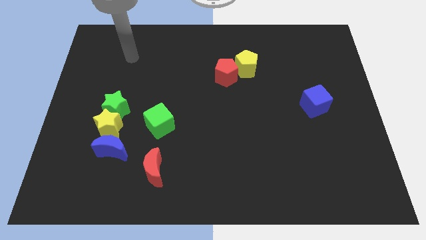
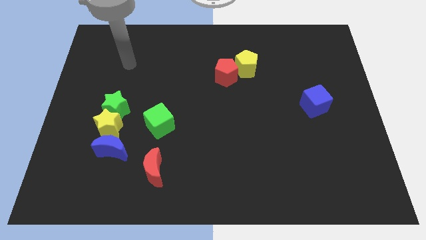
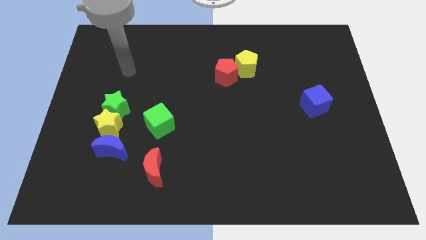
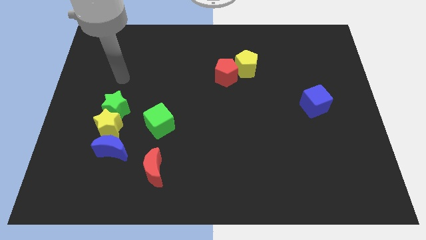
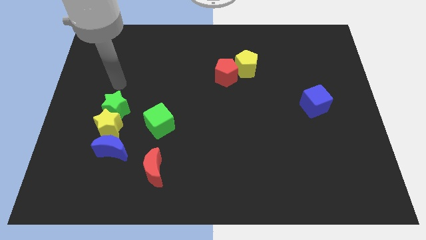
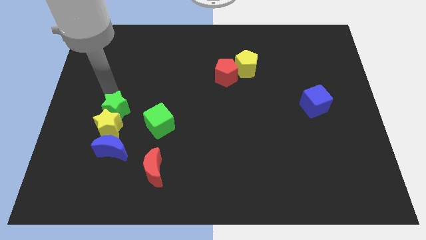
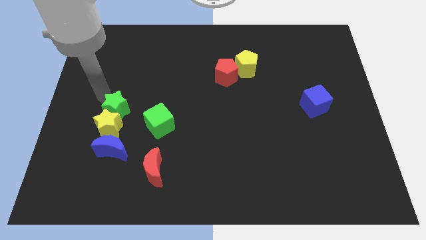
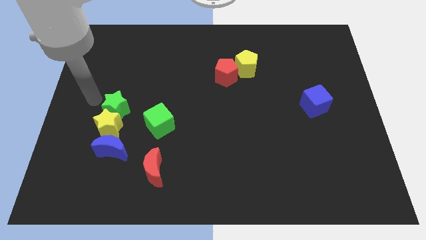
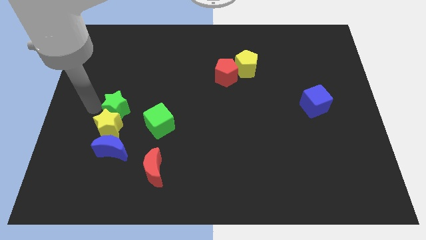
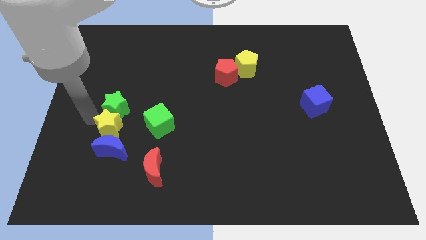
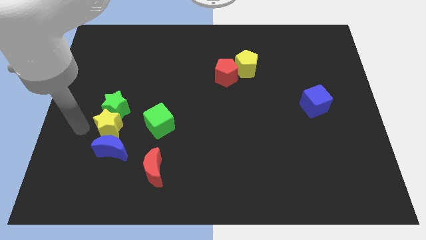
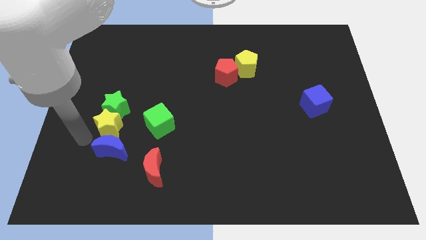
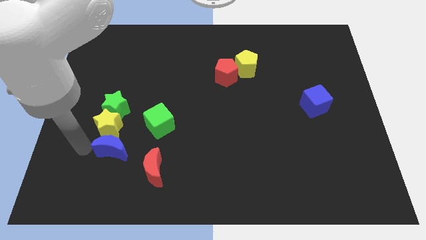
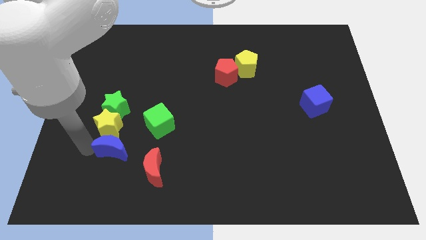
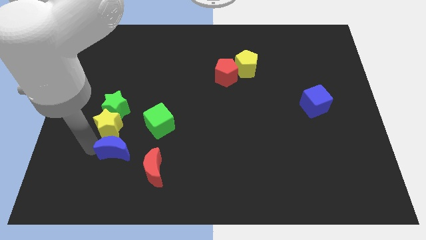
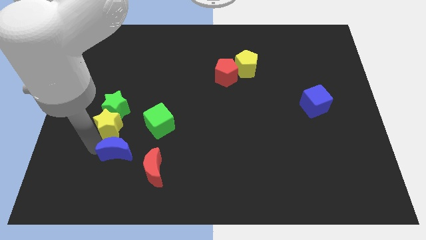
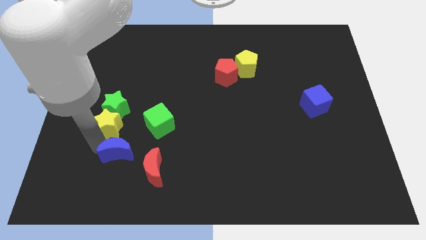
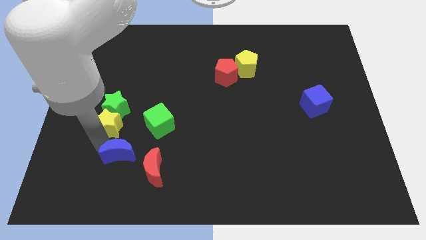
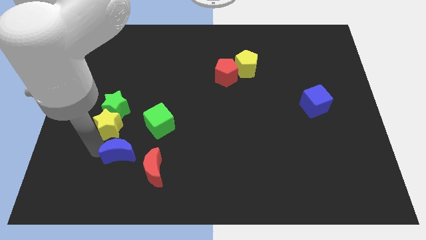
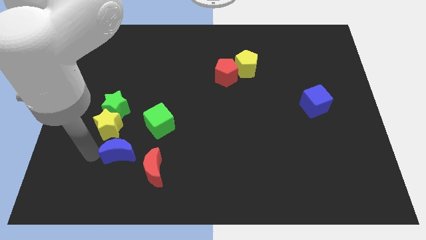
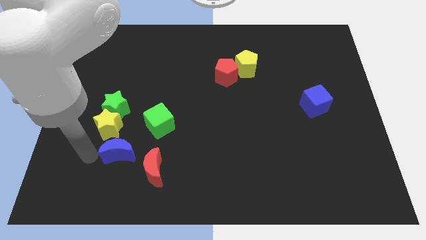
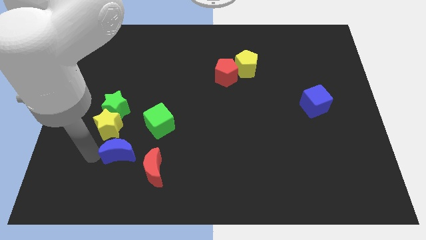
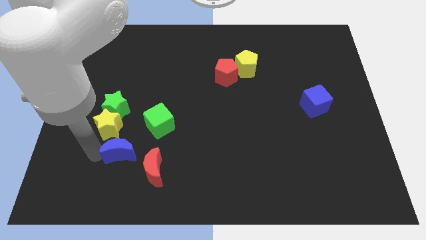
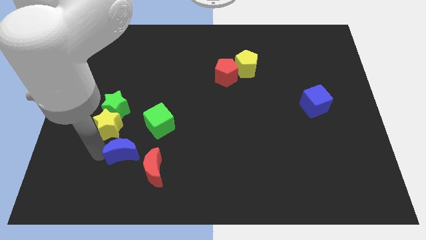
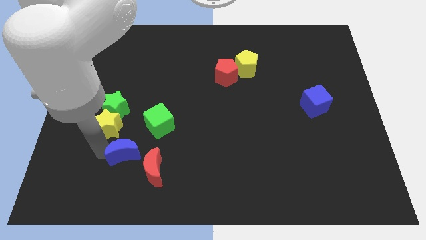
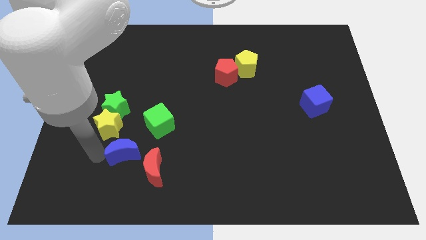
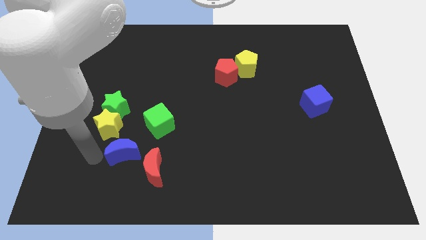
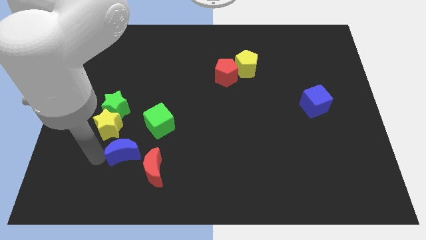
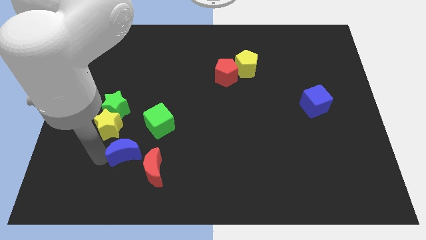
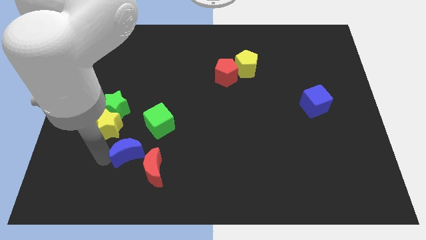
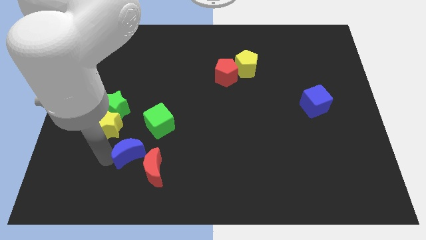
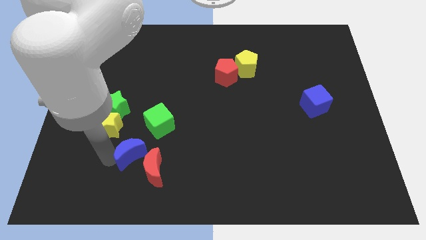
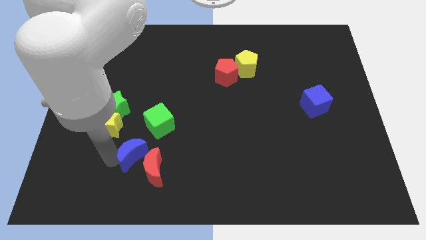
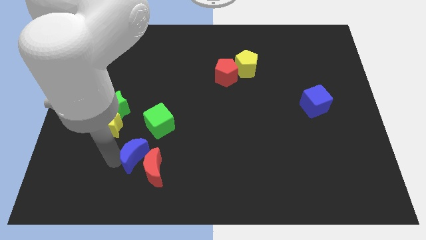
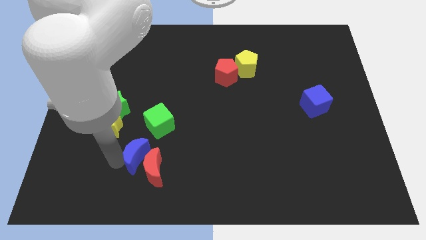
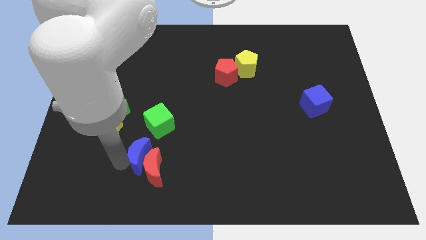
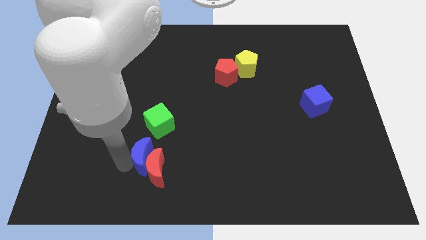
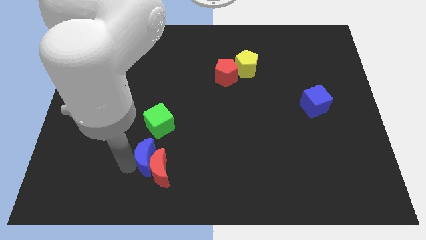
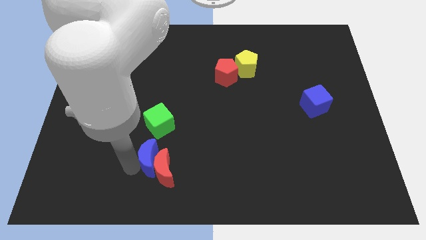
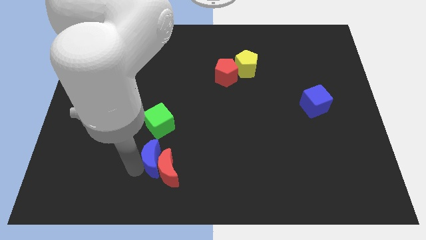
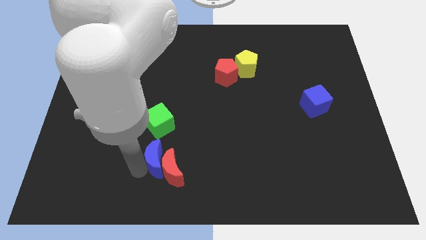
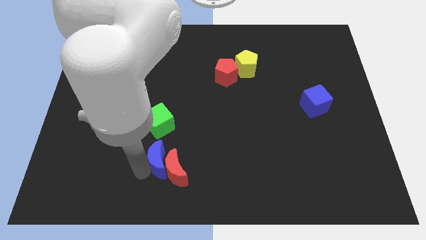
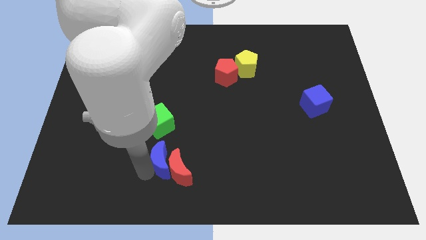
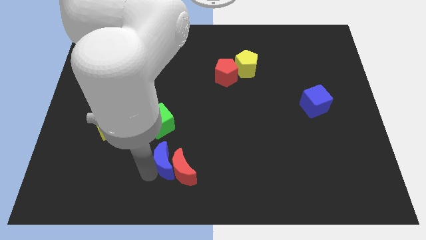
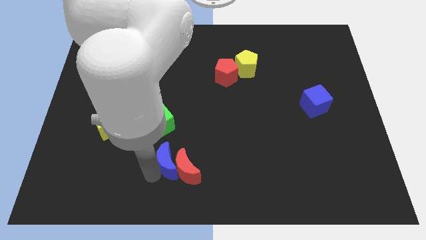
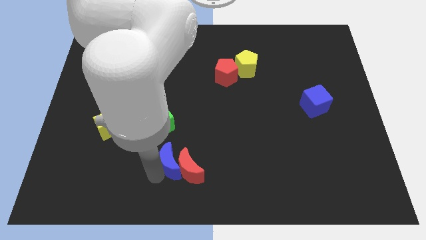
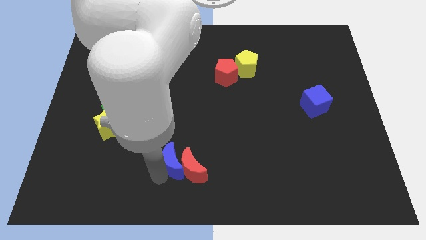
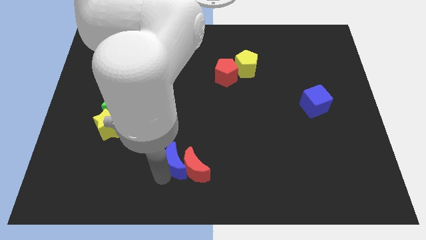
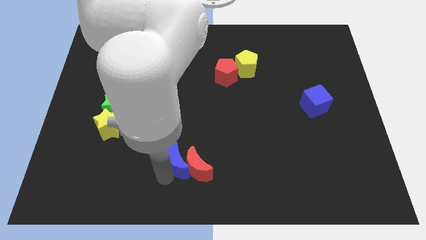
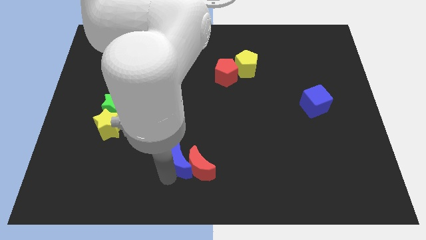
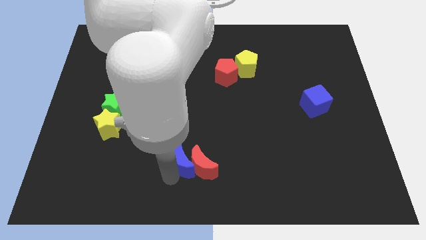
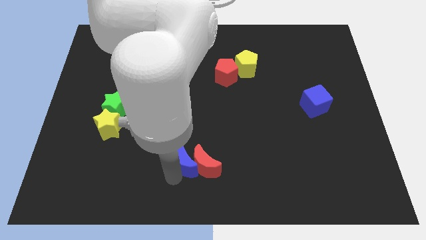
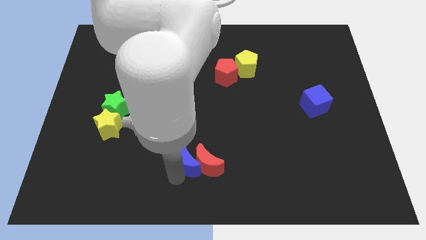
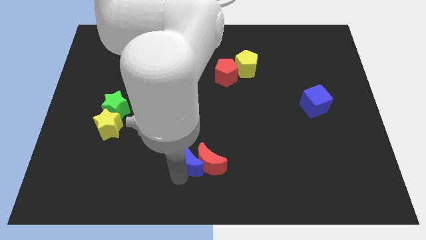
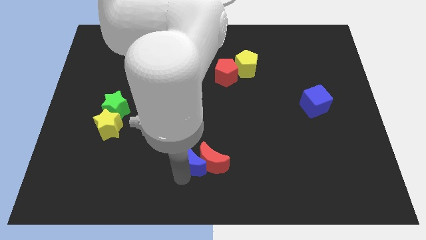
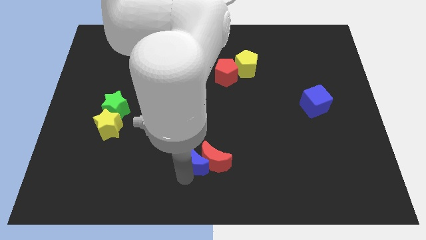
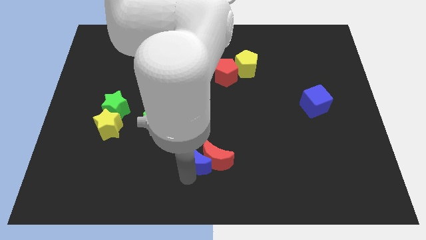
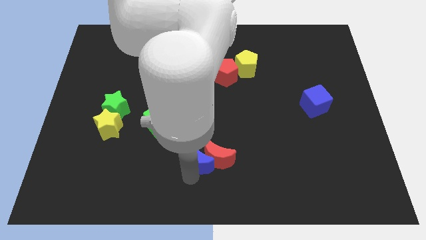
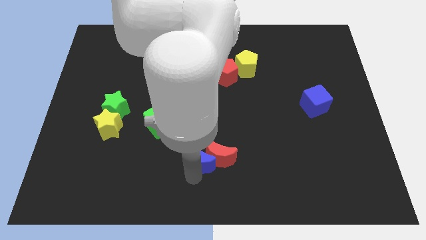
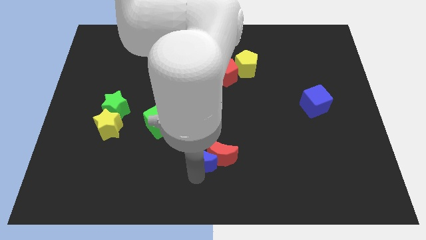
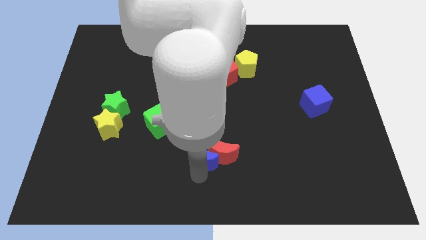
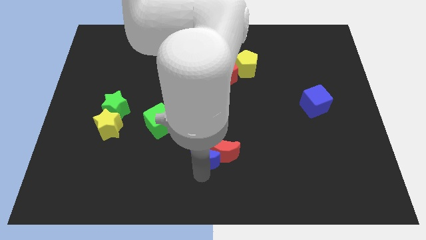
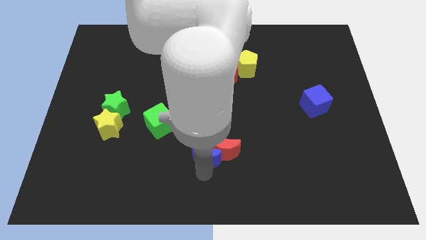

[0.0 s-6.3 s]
push the blue moon right

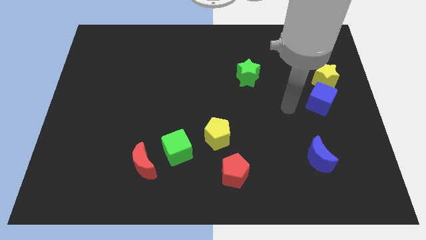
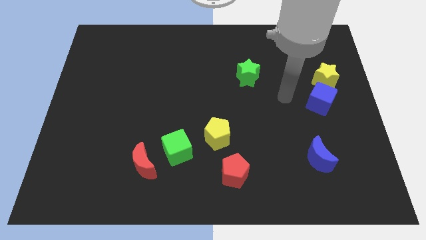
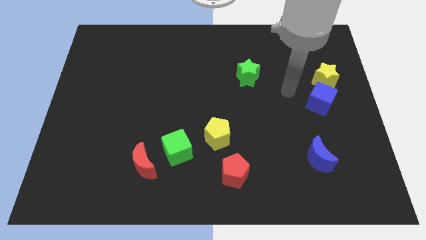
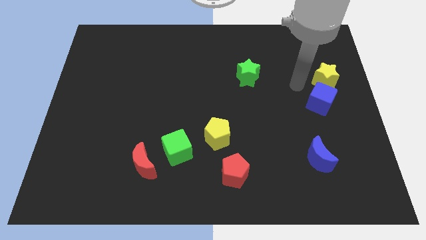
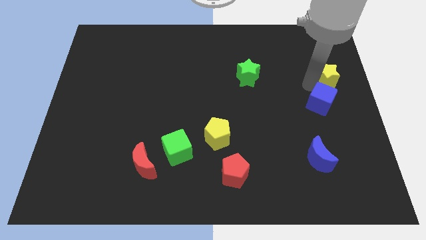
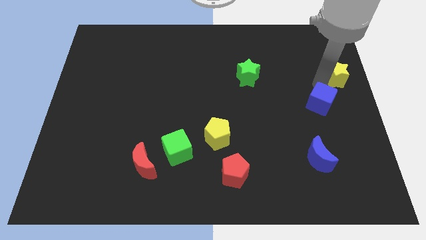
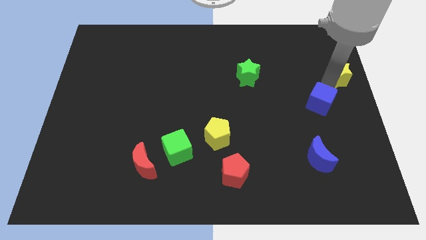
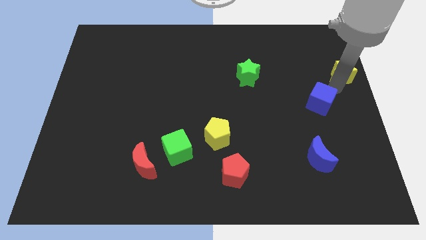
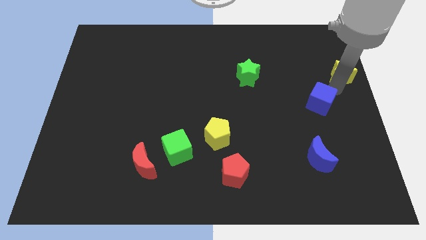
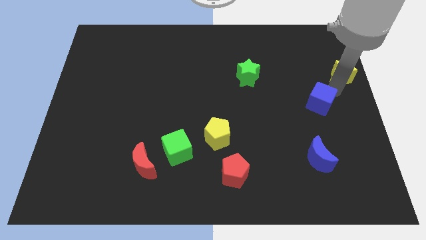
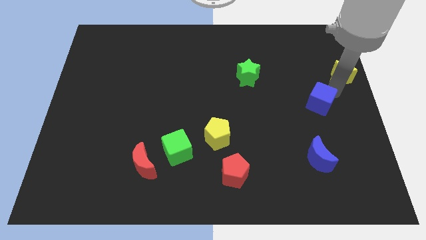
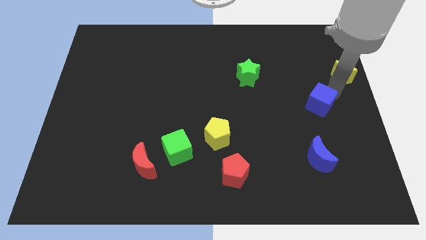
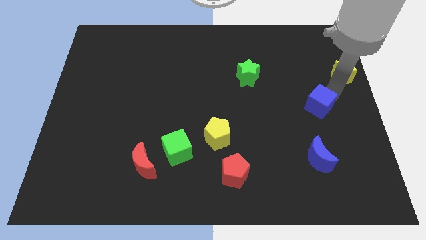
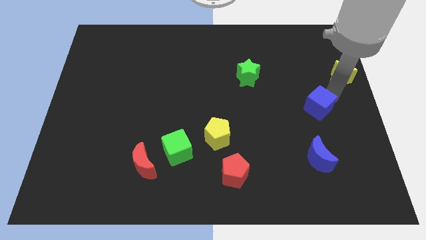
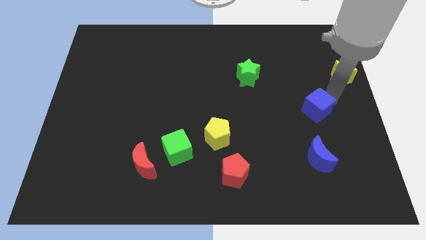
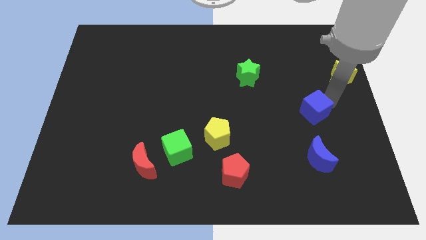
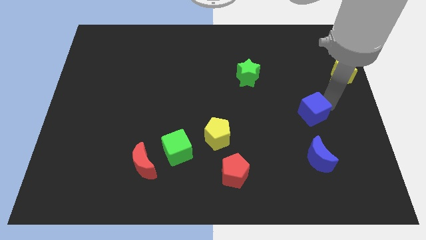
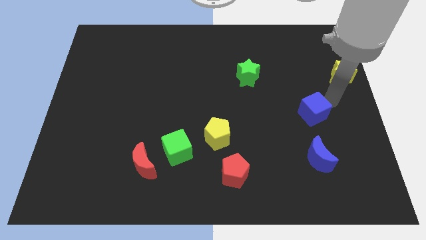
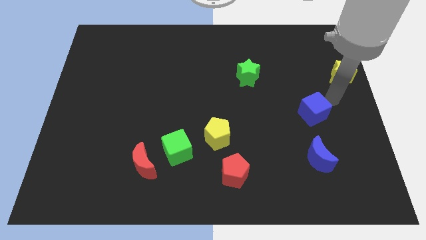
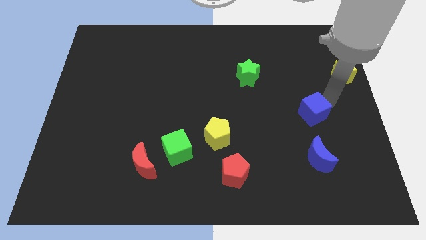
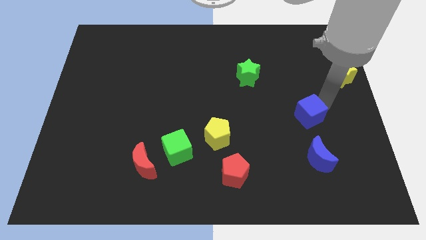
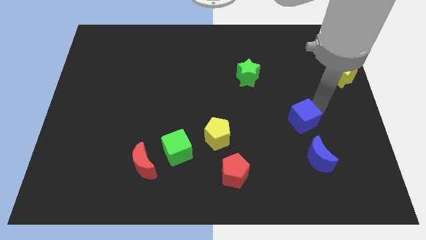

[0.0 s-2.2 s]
slightly move the blue cube downwards and left
